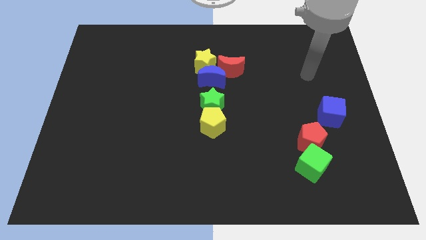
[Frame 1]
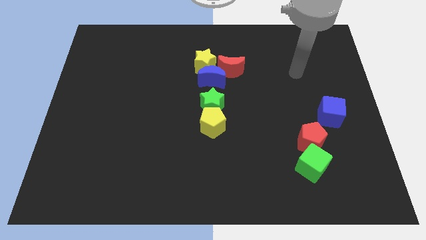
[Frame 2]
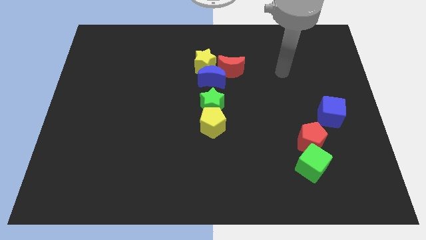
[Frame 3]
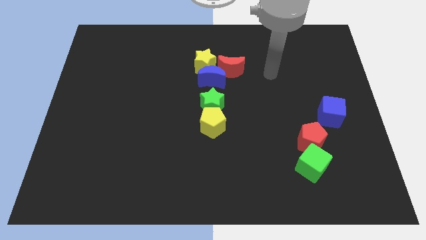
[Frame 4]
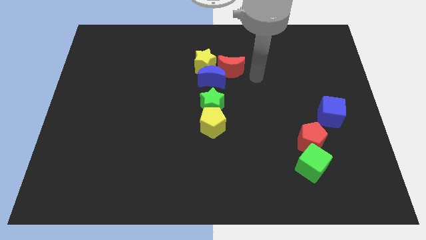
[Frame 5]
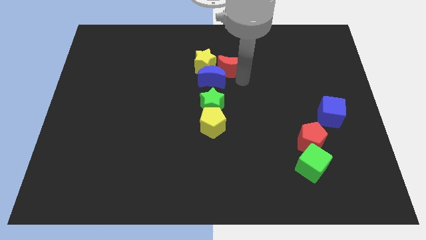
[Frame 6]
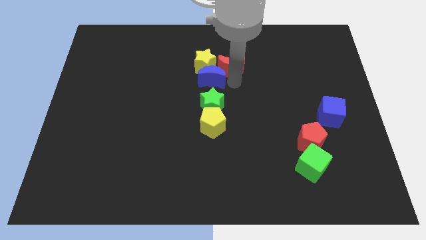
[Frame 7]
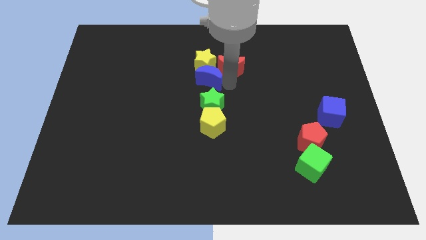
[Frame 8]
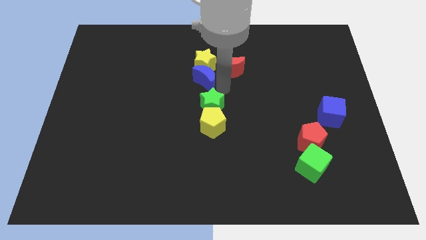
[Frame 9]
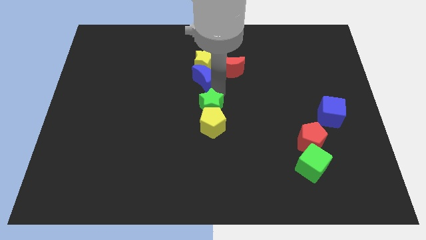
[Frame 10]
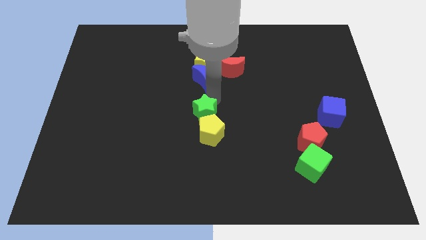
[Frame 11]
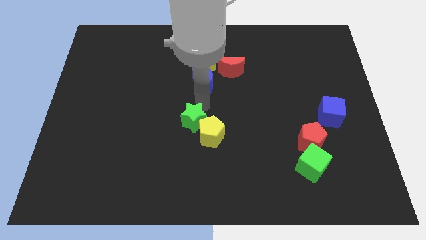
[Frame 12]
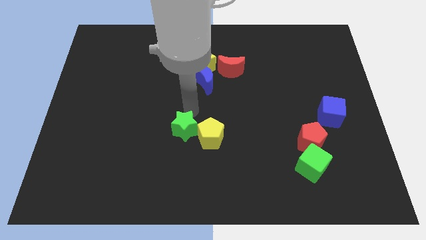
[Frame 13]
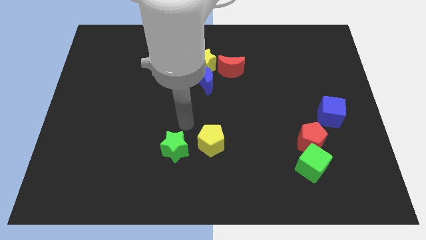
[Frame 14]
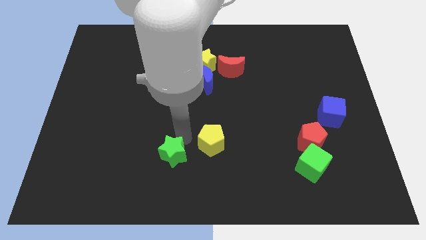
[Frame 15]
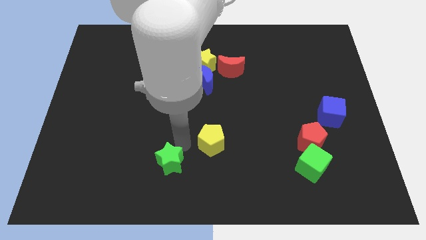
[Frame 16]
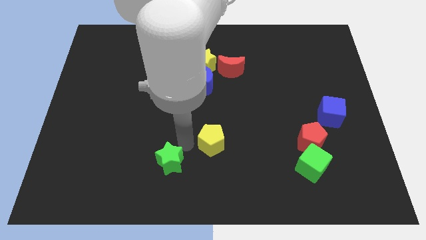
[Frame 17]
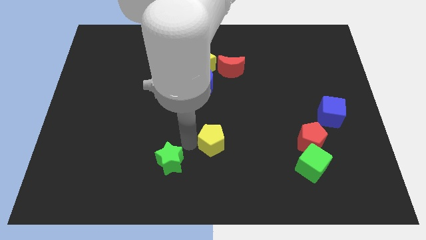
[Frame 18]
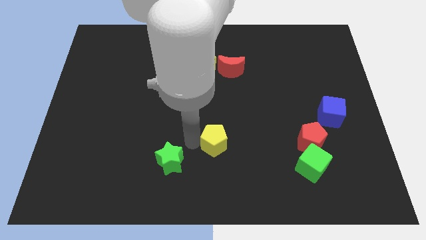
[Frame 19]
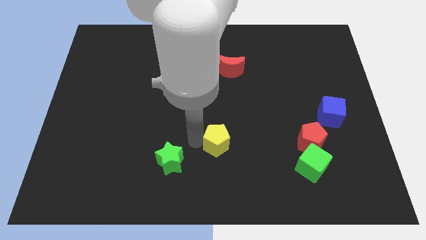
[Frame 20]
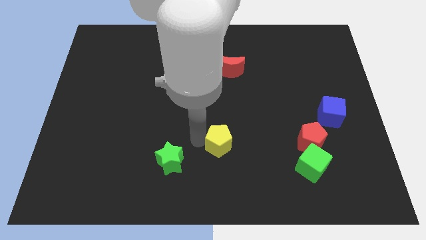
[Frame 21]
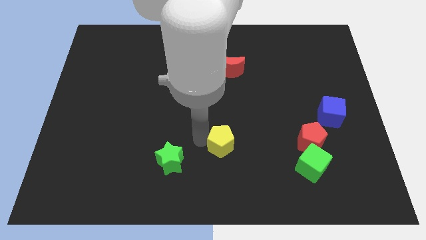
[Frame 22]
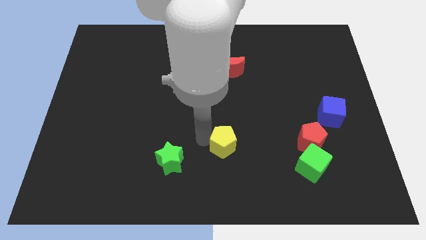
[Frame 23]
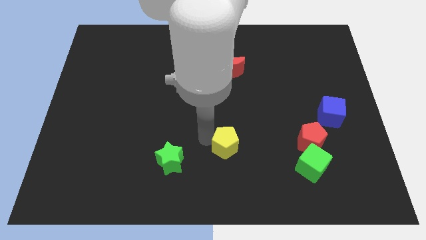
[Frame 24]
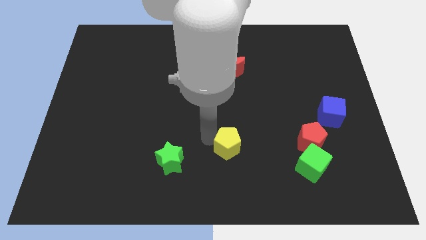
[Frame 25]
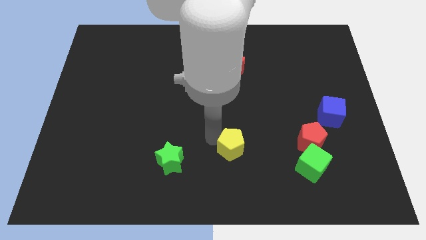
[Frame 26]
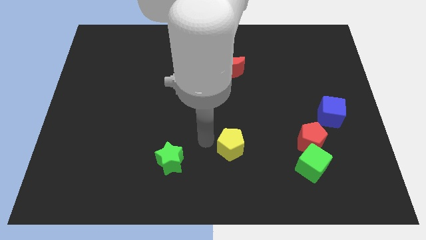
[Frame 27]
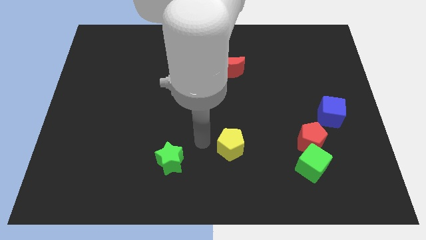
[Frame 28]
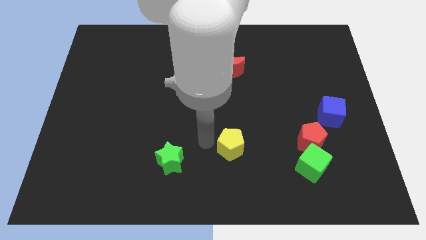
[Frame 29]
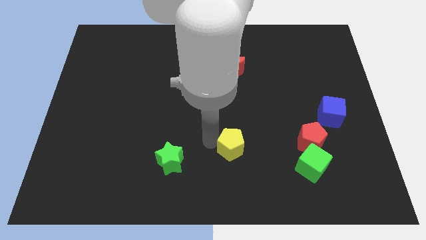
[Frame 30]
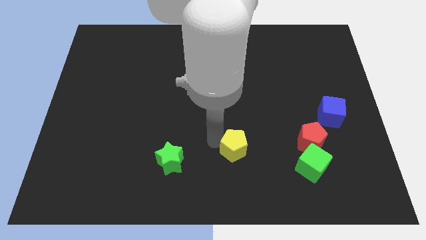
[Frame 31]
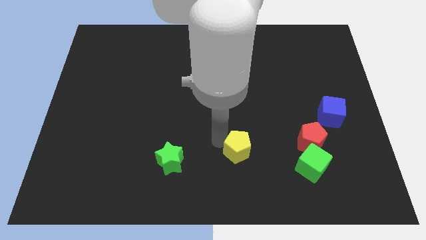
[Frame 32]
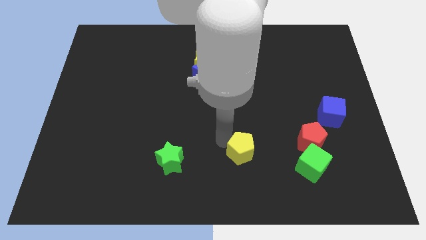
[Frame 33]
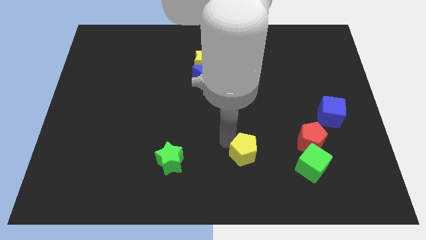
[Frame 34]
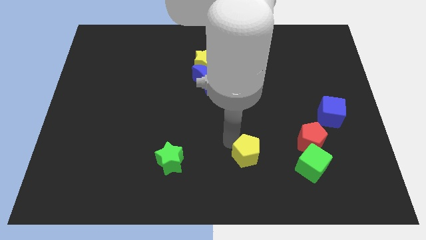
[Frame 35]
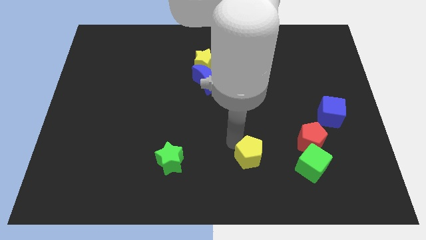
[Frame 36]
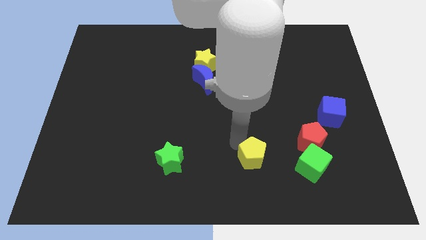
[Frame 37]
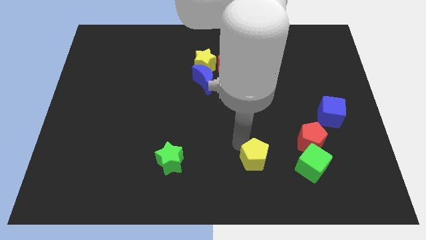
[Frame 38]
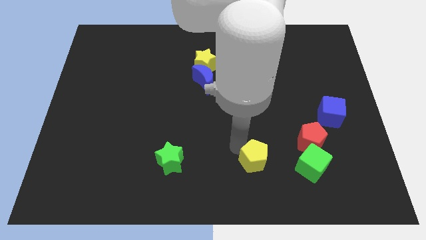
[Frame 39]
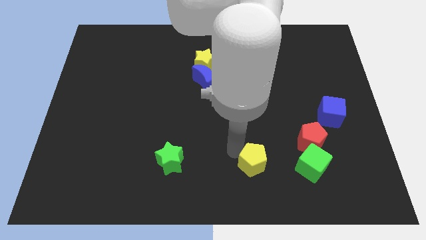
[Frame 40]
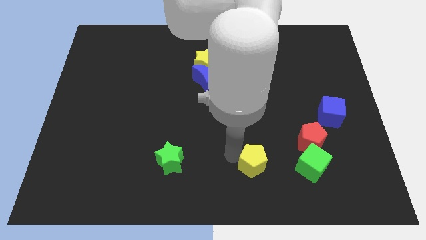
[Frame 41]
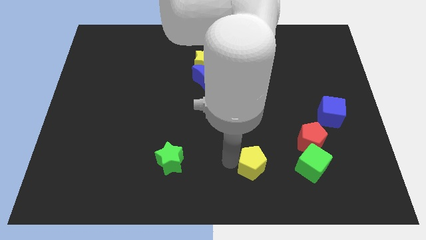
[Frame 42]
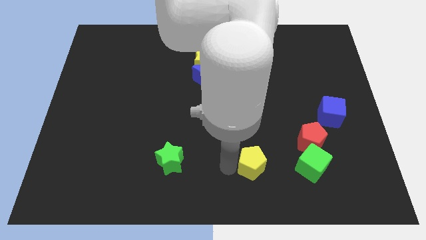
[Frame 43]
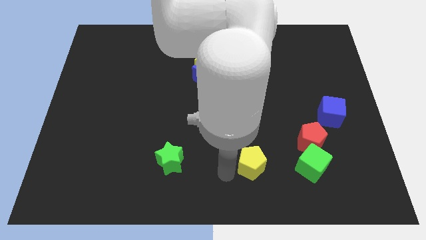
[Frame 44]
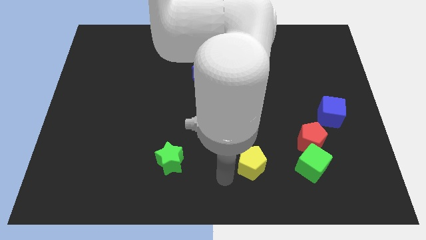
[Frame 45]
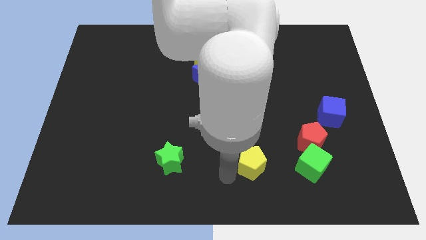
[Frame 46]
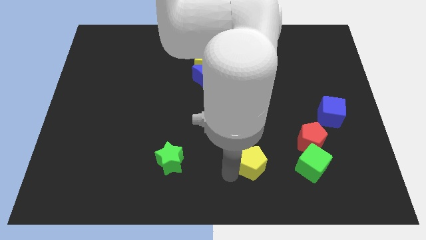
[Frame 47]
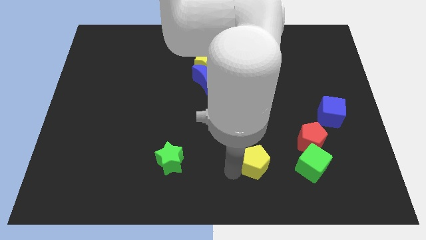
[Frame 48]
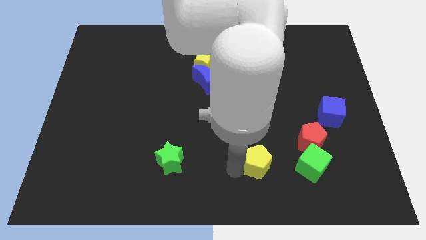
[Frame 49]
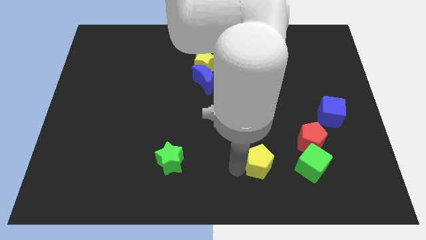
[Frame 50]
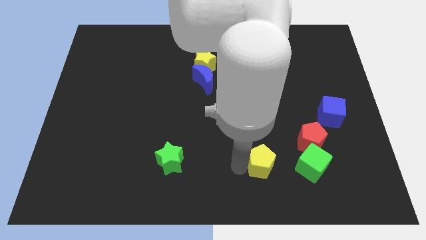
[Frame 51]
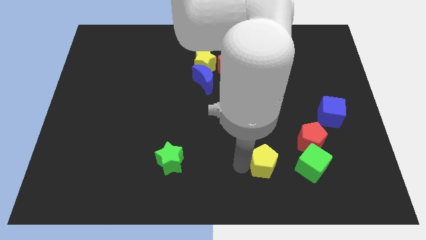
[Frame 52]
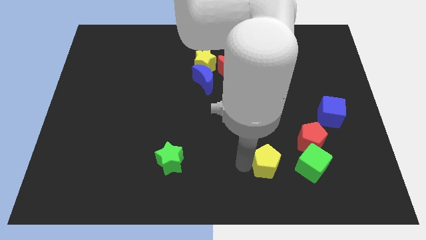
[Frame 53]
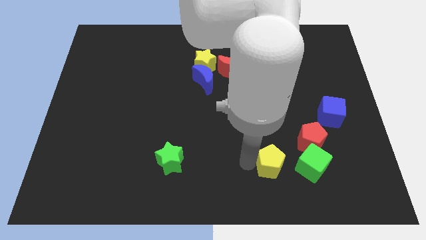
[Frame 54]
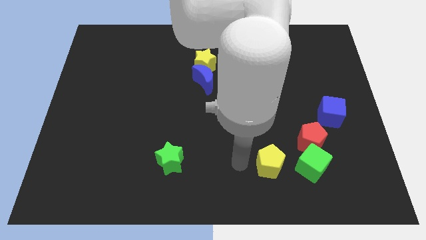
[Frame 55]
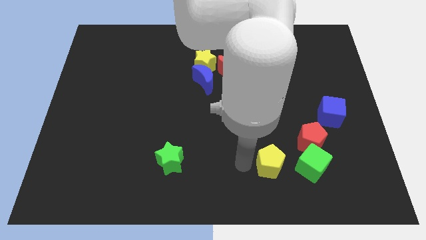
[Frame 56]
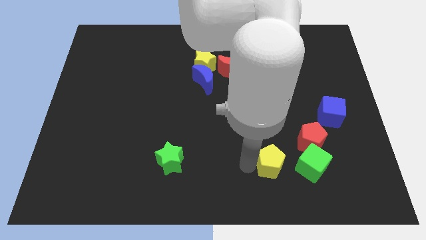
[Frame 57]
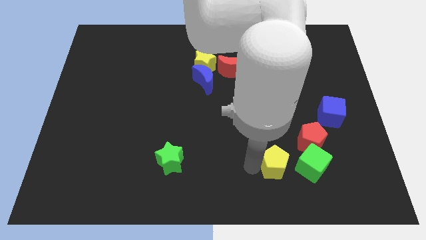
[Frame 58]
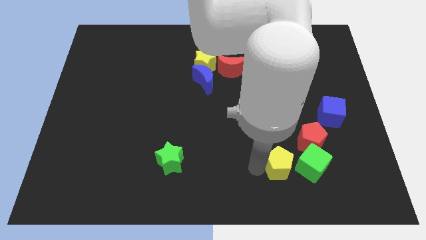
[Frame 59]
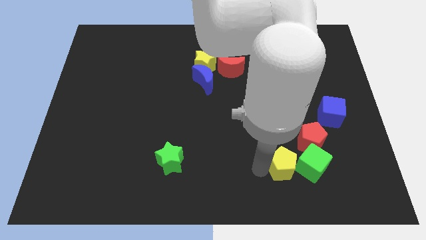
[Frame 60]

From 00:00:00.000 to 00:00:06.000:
move the yellow pentagon to the green cube

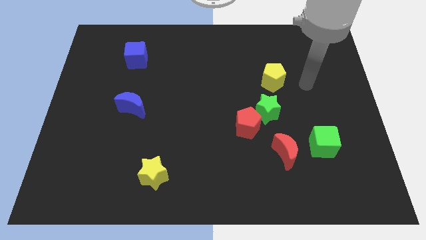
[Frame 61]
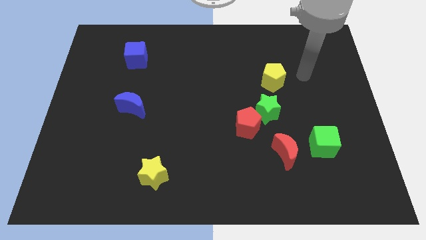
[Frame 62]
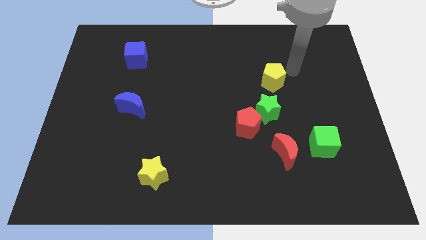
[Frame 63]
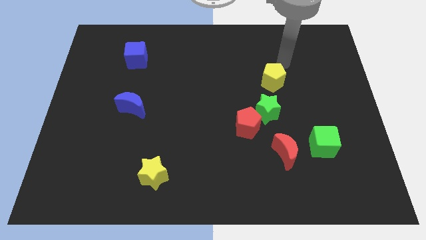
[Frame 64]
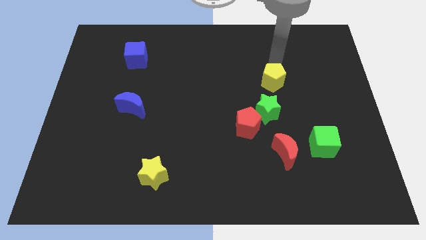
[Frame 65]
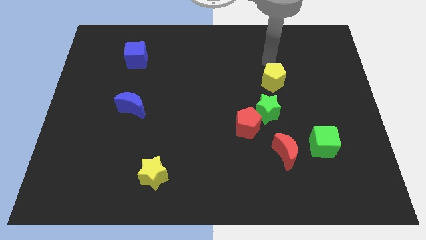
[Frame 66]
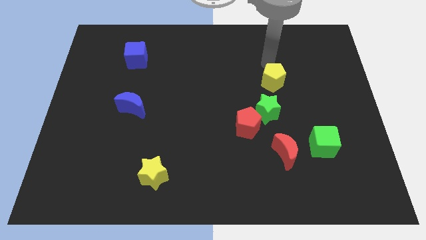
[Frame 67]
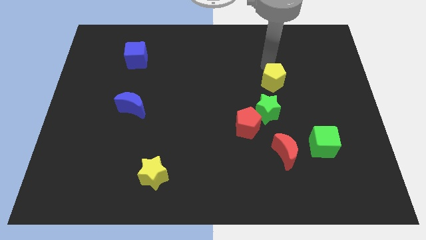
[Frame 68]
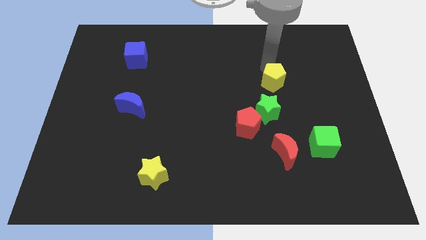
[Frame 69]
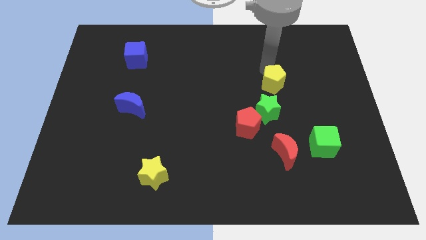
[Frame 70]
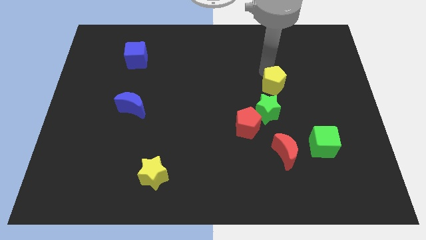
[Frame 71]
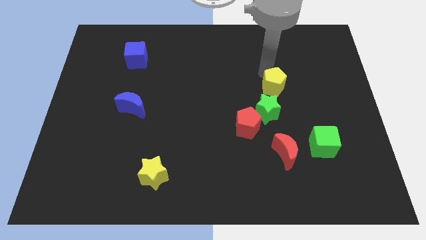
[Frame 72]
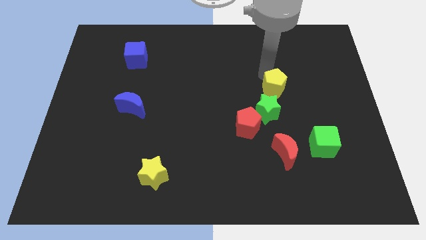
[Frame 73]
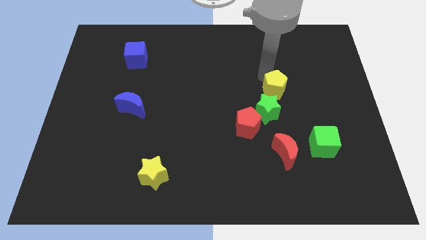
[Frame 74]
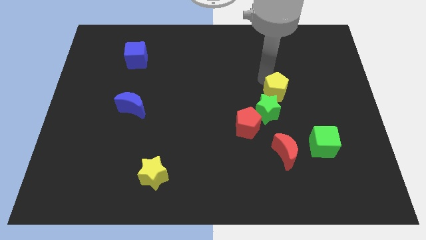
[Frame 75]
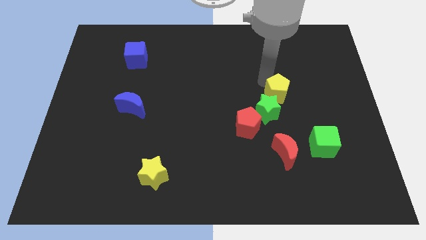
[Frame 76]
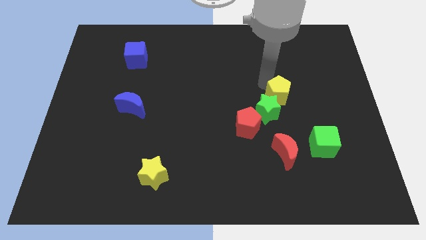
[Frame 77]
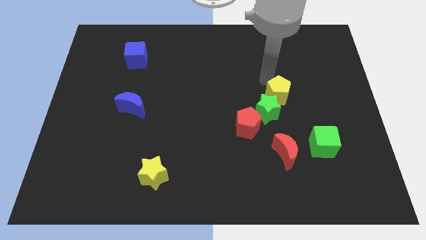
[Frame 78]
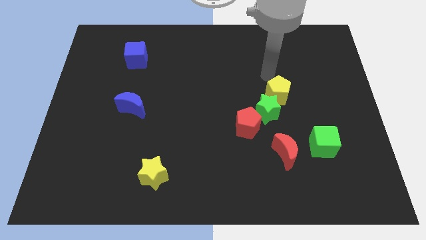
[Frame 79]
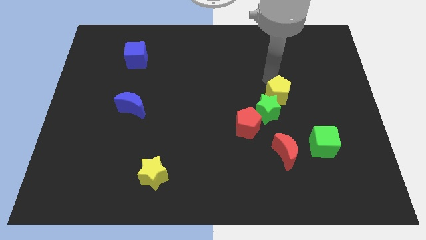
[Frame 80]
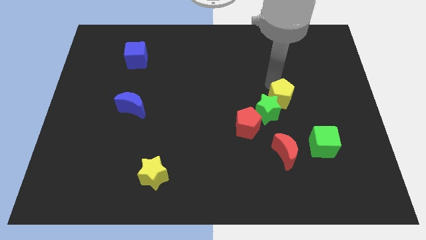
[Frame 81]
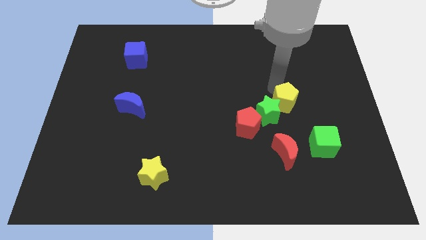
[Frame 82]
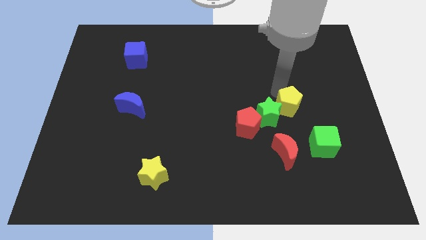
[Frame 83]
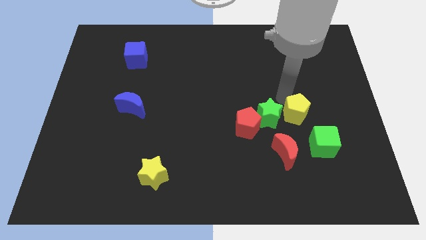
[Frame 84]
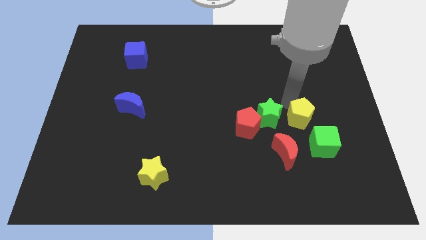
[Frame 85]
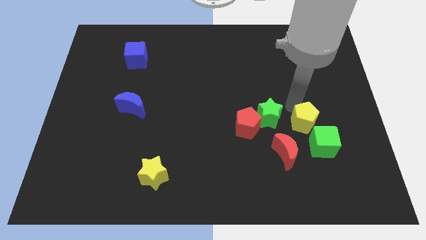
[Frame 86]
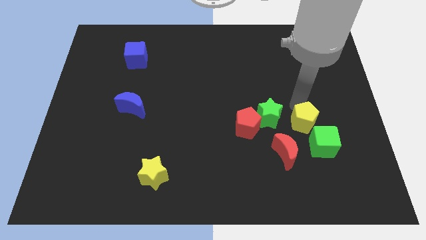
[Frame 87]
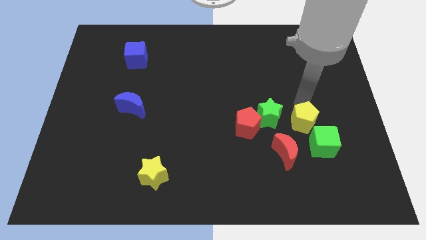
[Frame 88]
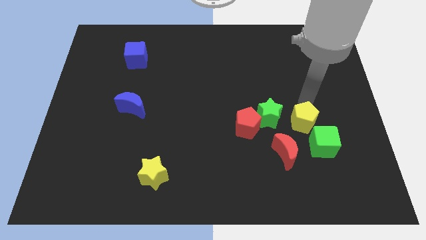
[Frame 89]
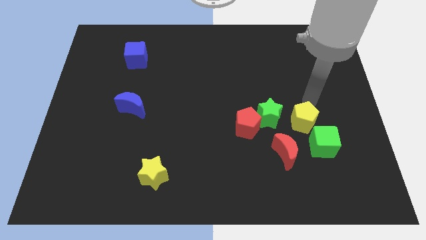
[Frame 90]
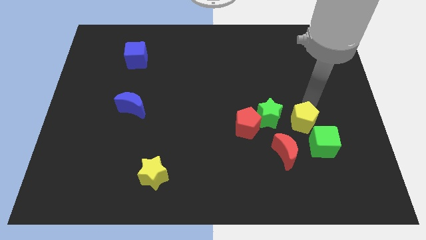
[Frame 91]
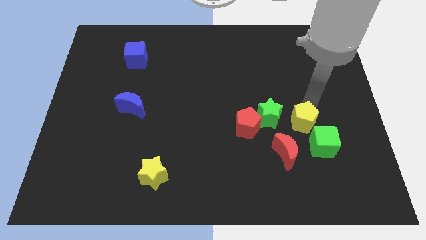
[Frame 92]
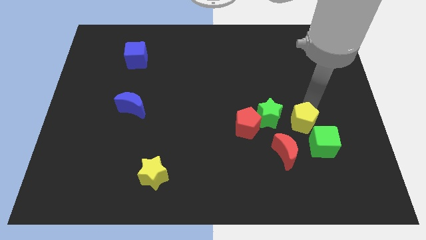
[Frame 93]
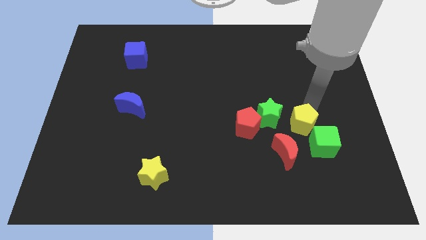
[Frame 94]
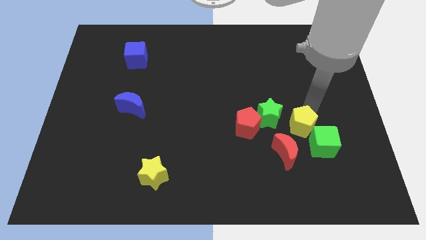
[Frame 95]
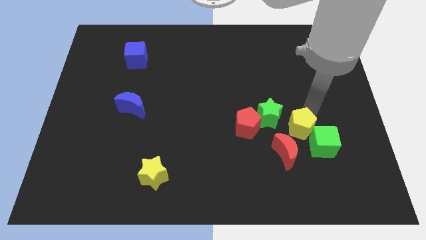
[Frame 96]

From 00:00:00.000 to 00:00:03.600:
slide the yellow pentagon towards the green cube
